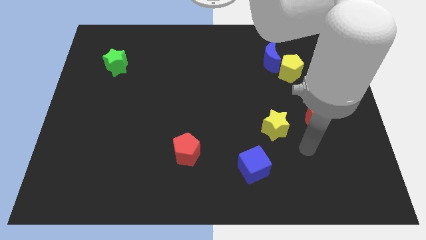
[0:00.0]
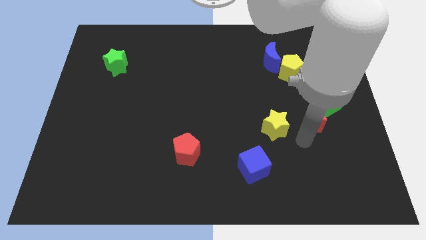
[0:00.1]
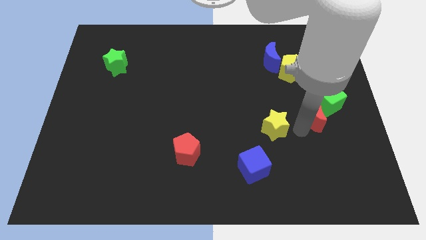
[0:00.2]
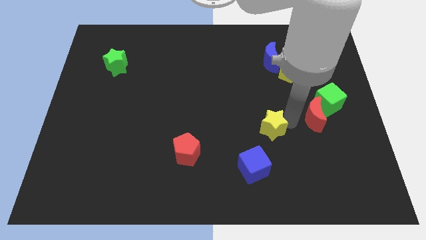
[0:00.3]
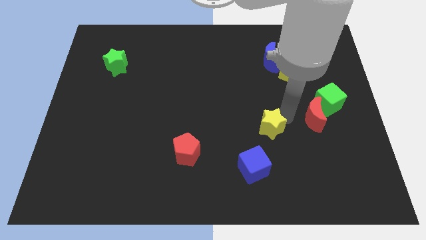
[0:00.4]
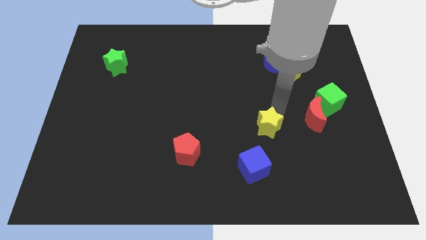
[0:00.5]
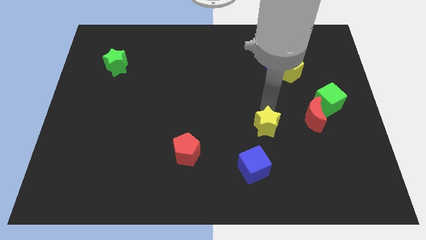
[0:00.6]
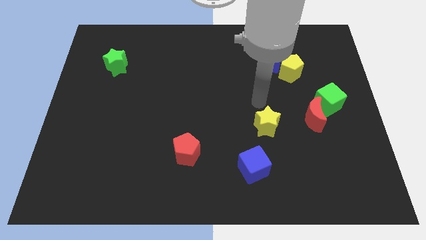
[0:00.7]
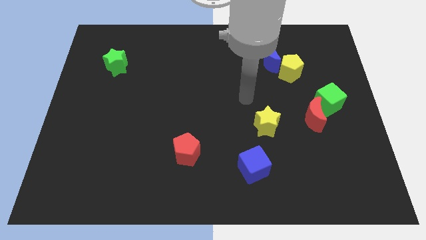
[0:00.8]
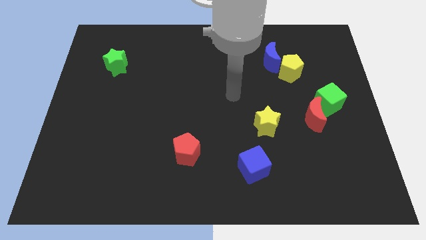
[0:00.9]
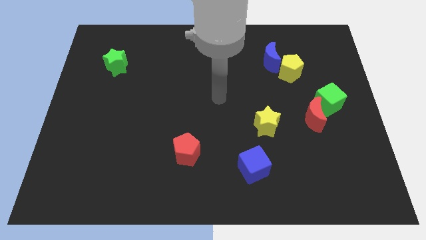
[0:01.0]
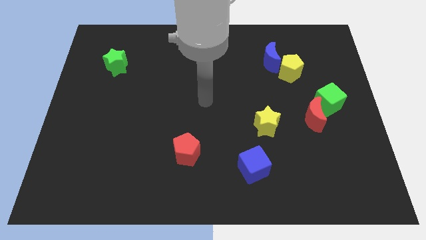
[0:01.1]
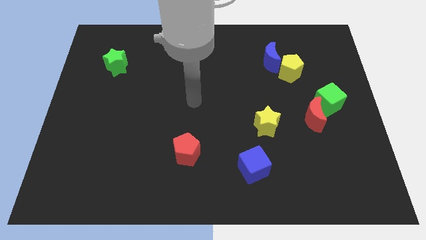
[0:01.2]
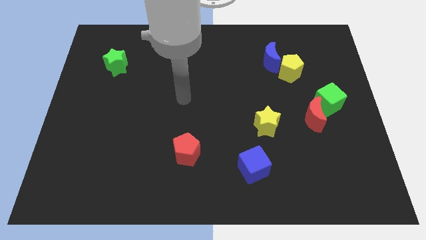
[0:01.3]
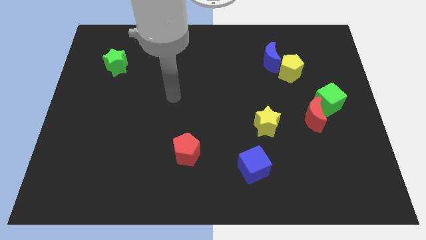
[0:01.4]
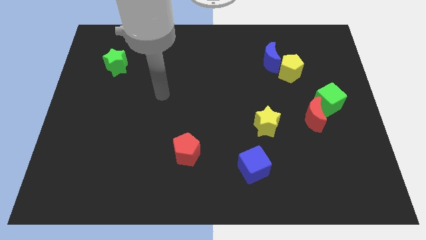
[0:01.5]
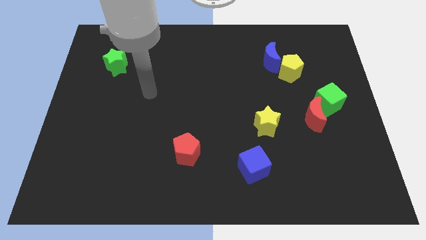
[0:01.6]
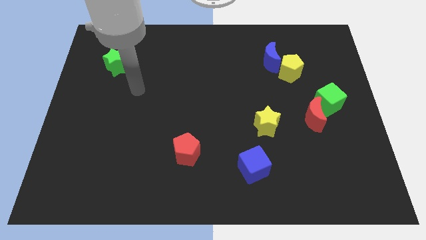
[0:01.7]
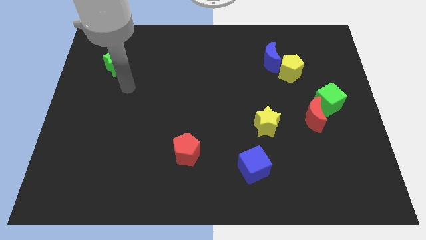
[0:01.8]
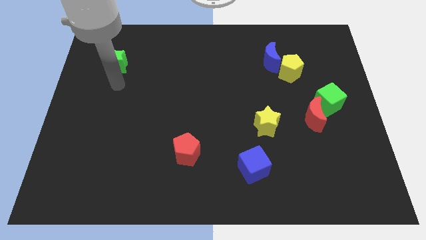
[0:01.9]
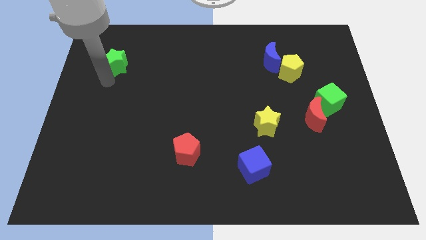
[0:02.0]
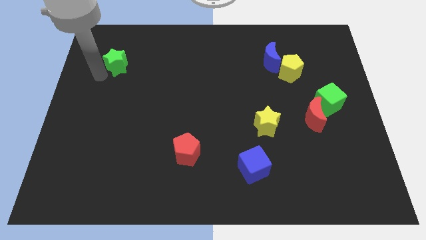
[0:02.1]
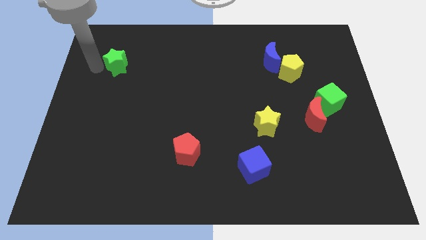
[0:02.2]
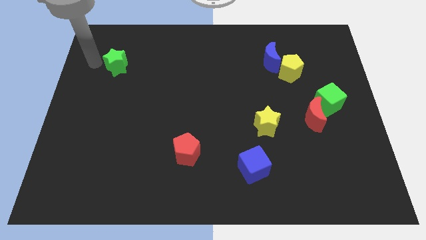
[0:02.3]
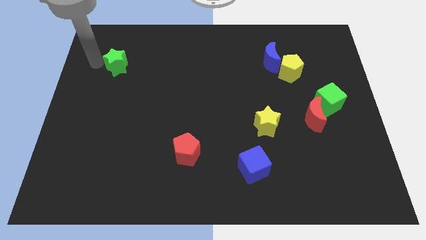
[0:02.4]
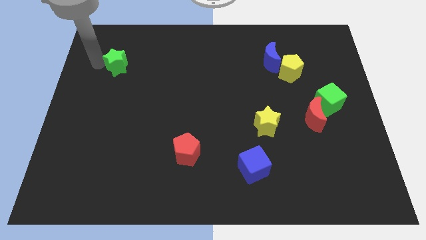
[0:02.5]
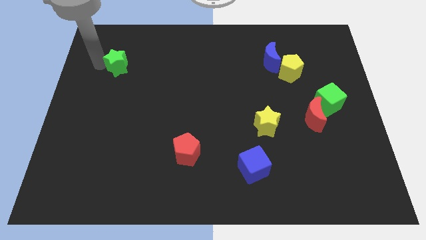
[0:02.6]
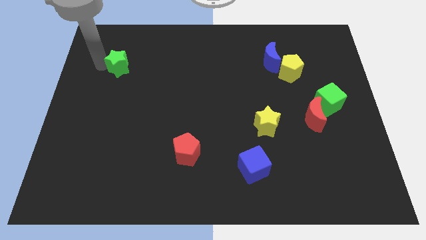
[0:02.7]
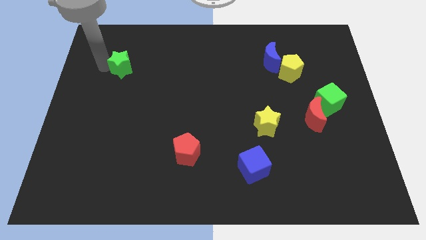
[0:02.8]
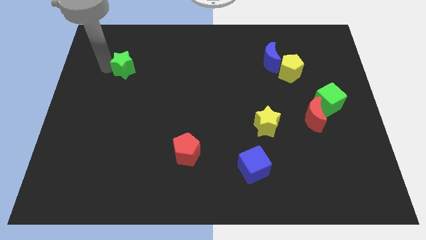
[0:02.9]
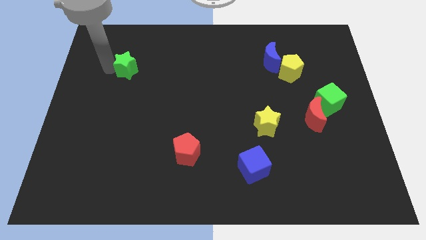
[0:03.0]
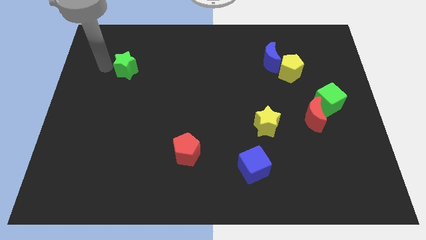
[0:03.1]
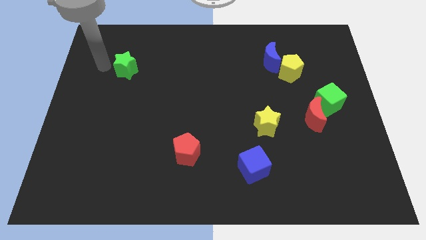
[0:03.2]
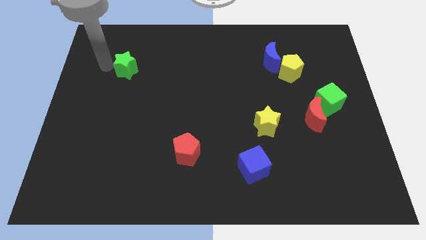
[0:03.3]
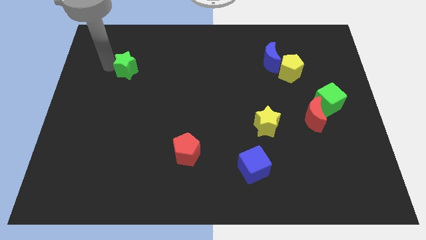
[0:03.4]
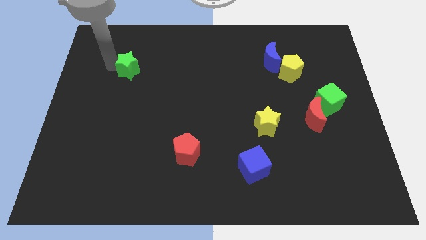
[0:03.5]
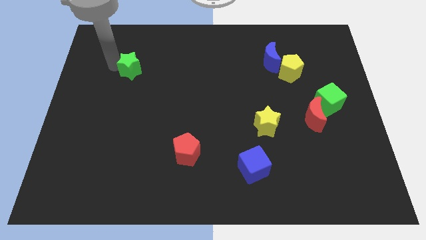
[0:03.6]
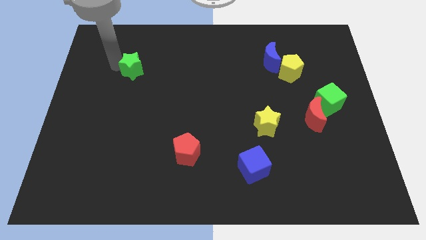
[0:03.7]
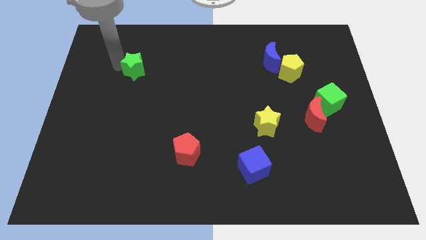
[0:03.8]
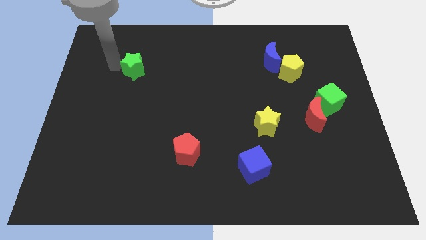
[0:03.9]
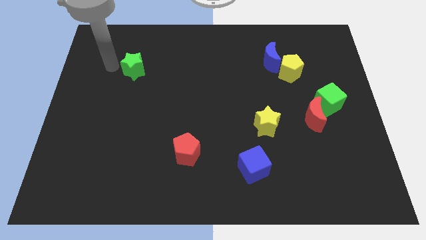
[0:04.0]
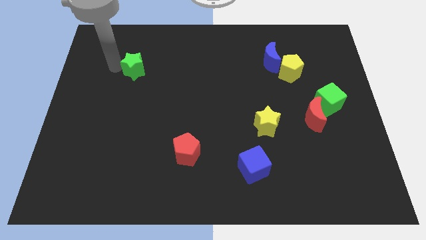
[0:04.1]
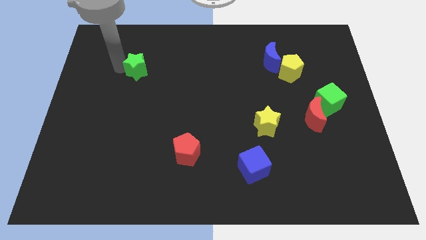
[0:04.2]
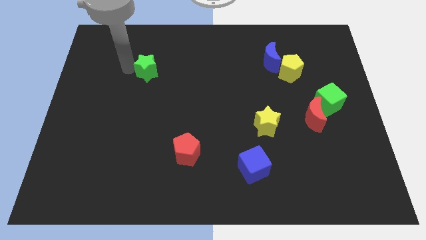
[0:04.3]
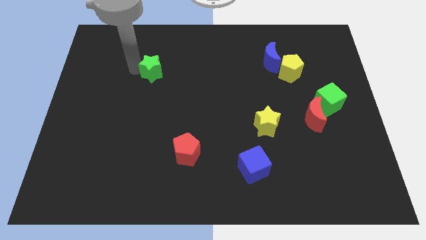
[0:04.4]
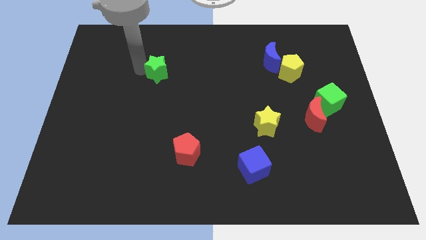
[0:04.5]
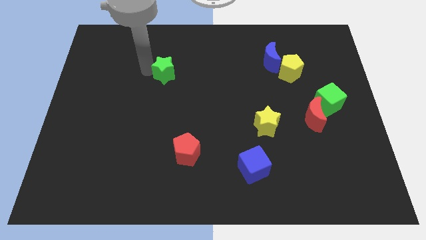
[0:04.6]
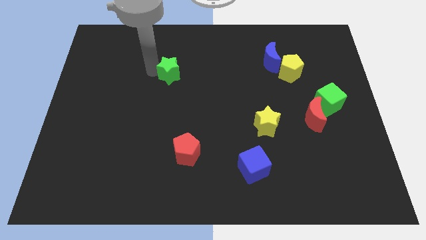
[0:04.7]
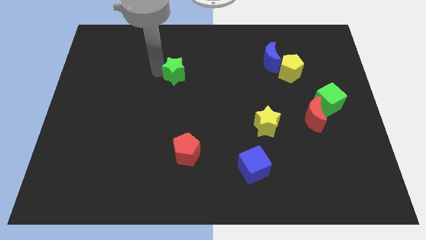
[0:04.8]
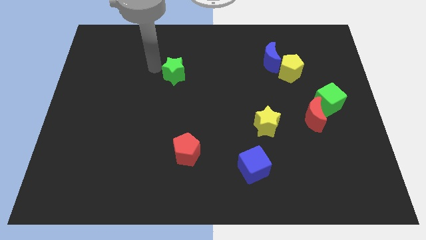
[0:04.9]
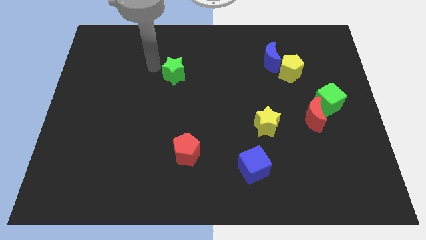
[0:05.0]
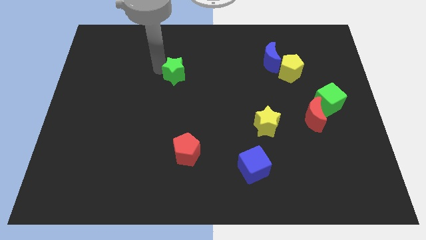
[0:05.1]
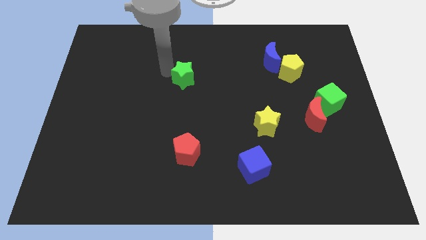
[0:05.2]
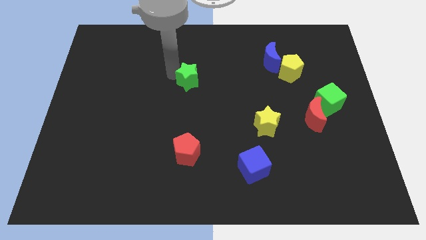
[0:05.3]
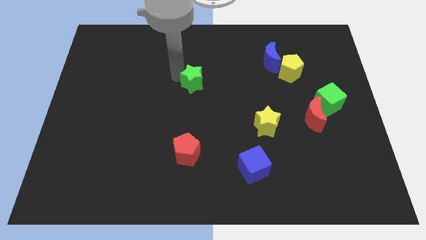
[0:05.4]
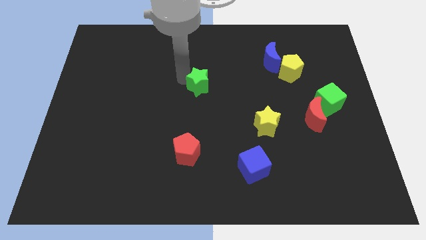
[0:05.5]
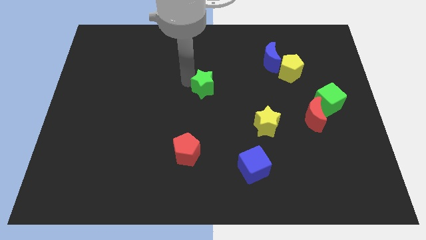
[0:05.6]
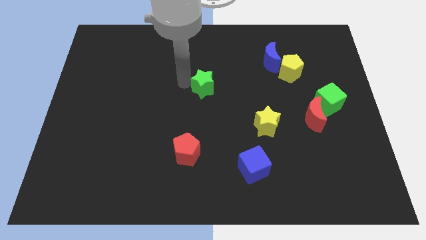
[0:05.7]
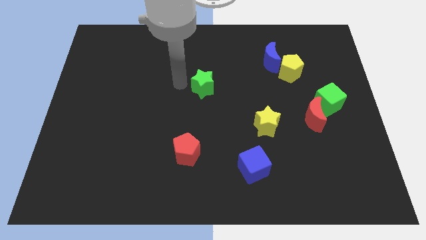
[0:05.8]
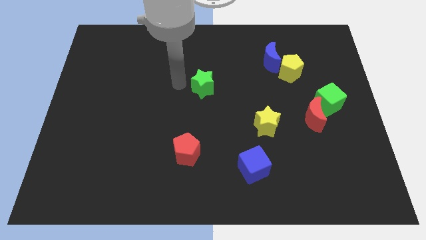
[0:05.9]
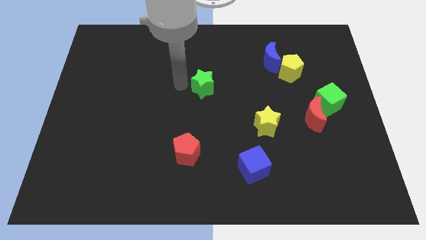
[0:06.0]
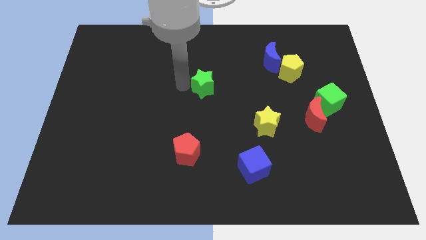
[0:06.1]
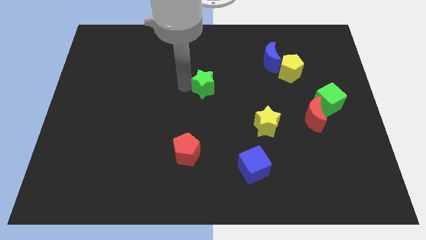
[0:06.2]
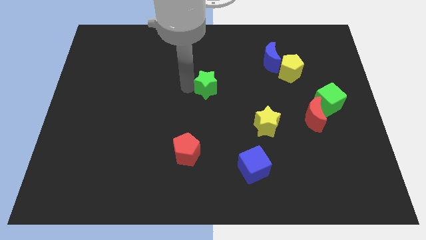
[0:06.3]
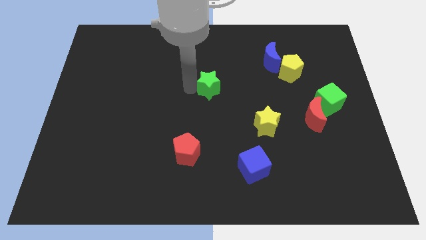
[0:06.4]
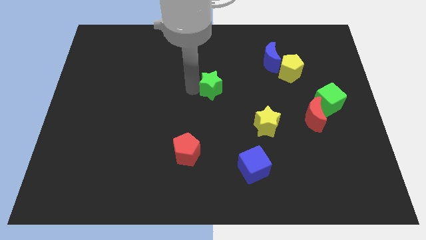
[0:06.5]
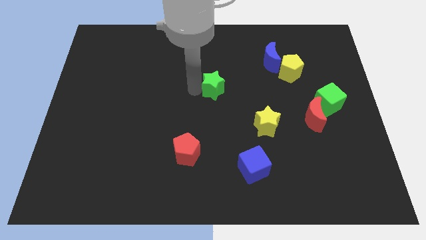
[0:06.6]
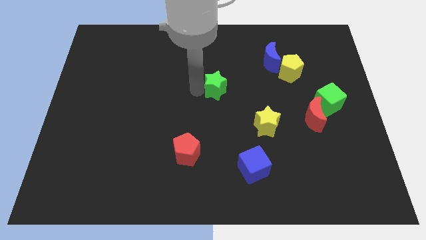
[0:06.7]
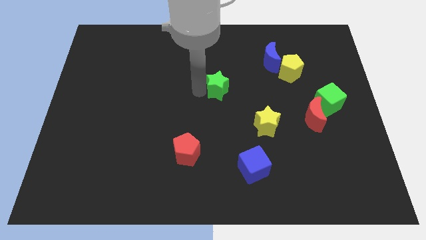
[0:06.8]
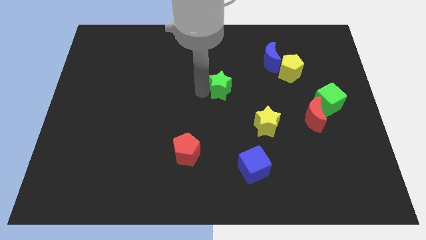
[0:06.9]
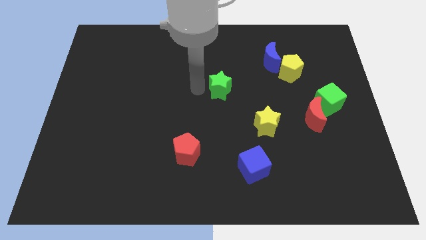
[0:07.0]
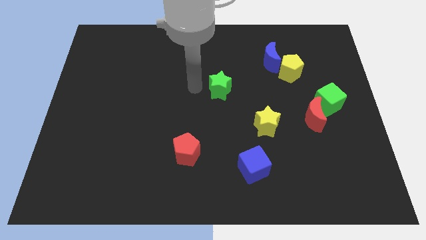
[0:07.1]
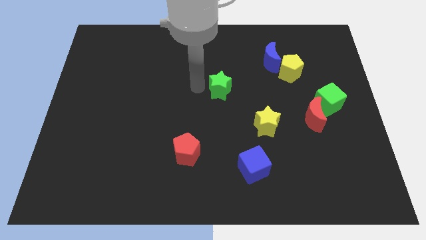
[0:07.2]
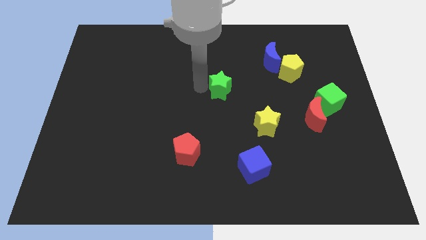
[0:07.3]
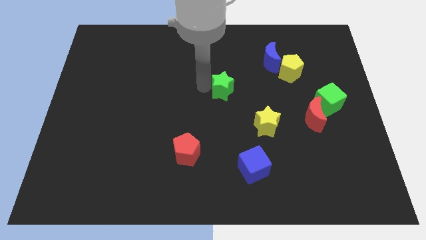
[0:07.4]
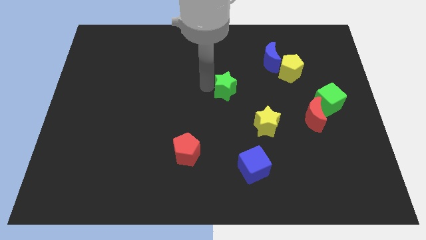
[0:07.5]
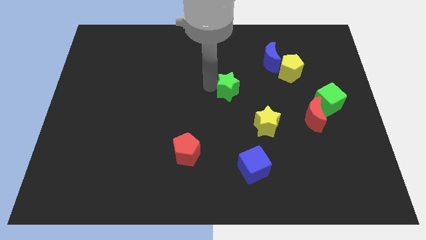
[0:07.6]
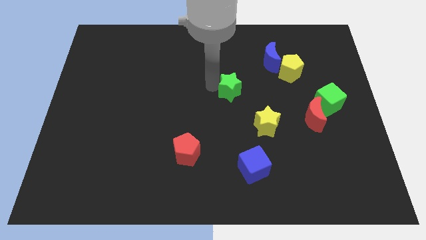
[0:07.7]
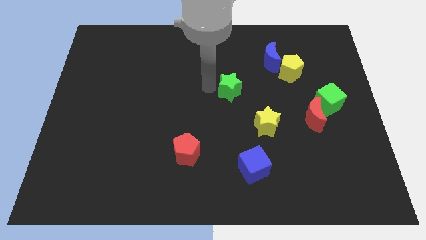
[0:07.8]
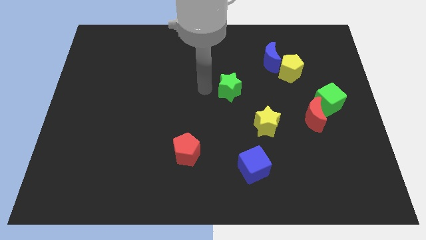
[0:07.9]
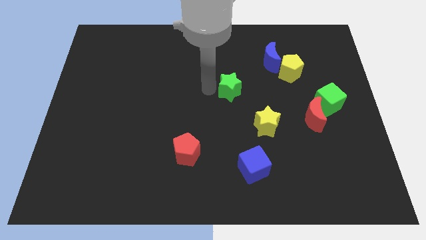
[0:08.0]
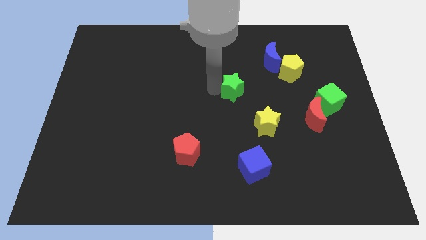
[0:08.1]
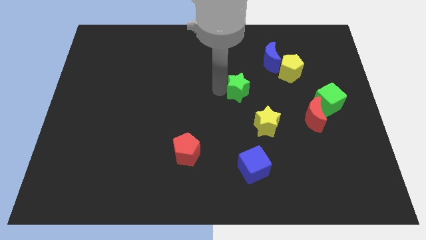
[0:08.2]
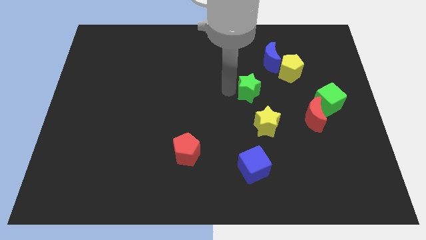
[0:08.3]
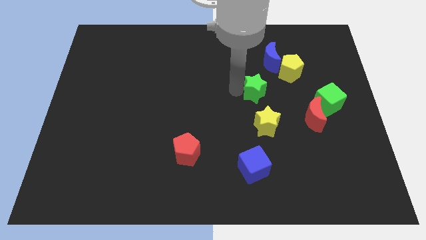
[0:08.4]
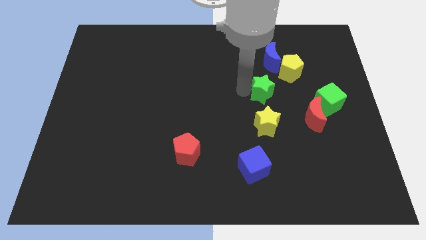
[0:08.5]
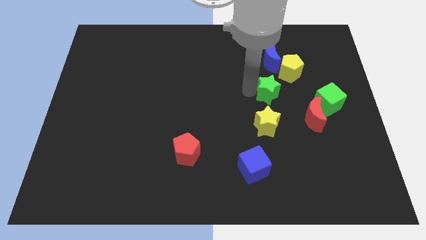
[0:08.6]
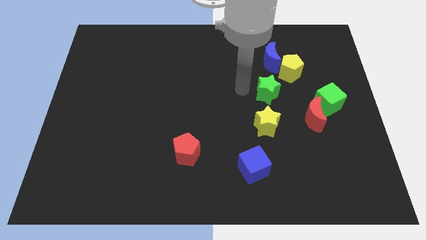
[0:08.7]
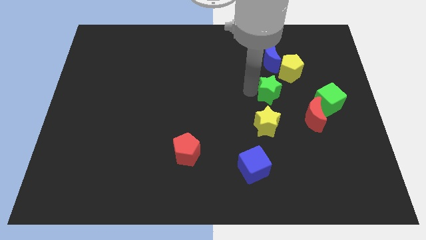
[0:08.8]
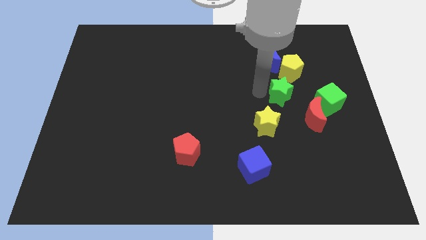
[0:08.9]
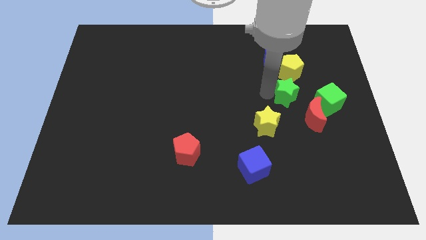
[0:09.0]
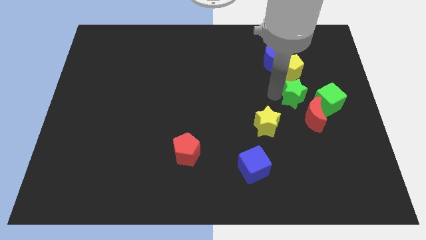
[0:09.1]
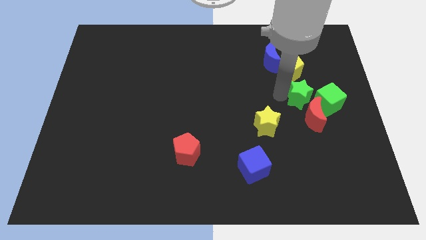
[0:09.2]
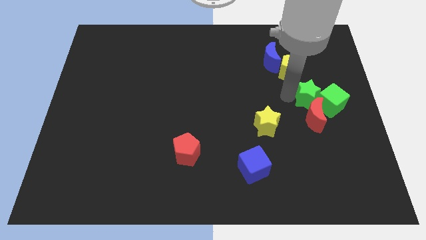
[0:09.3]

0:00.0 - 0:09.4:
move the green star to the green cube
